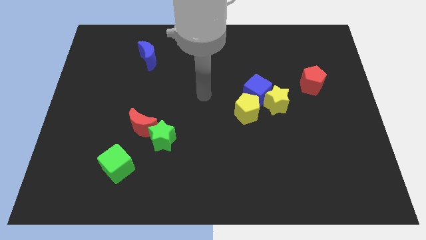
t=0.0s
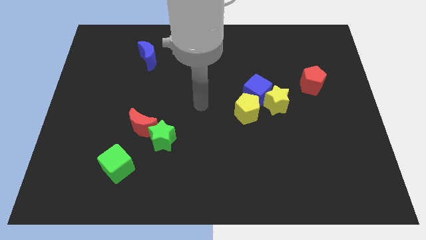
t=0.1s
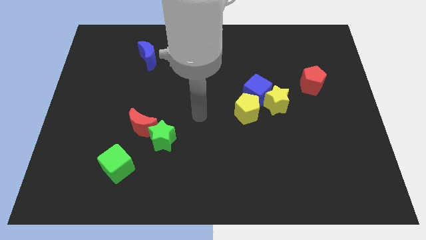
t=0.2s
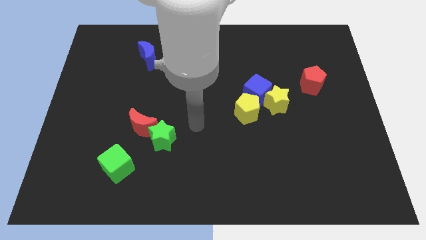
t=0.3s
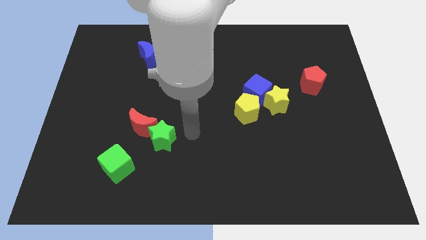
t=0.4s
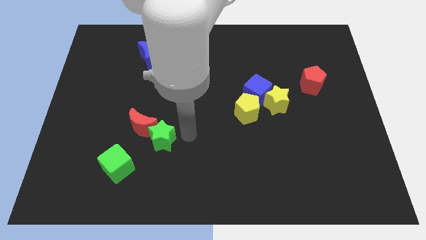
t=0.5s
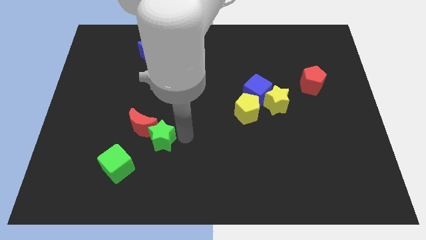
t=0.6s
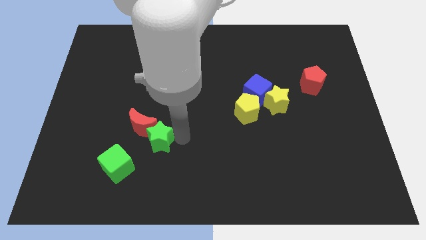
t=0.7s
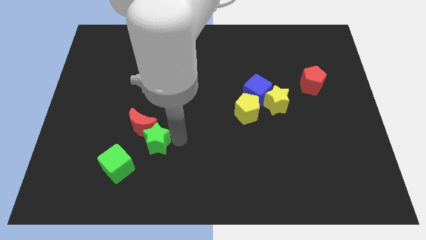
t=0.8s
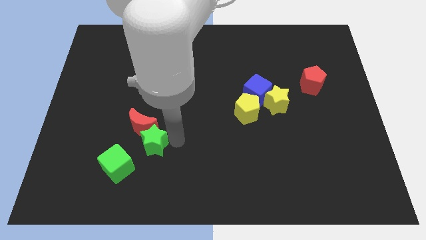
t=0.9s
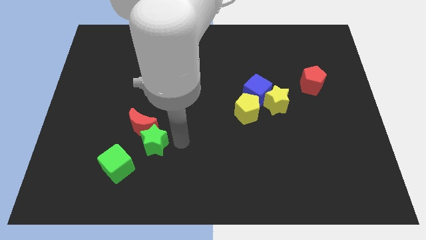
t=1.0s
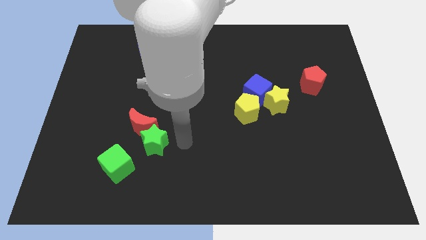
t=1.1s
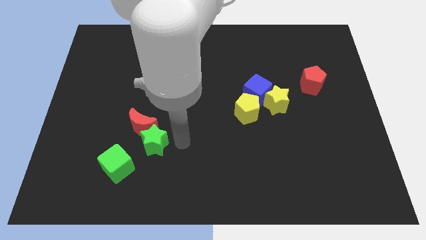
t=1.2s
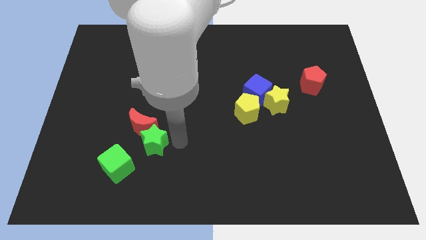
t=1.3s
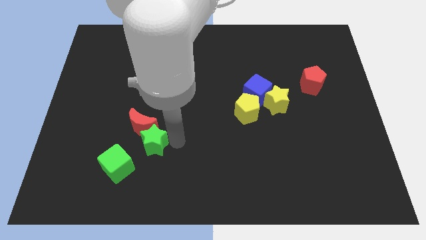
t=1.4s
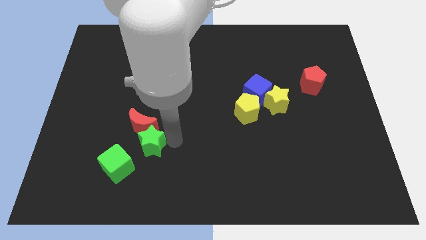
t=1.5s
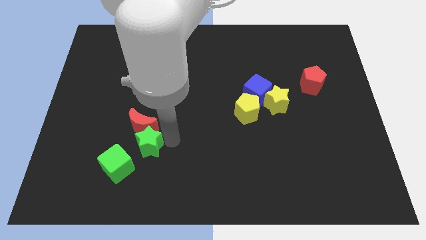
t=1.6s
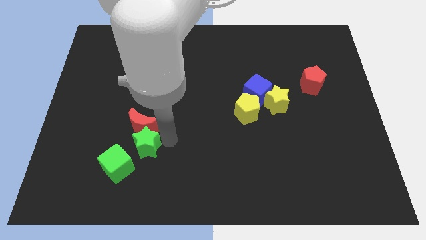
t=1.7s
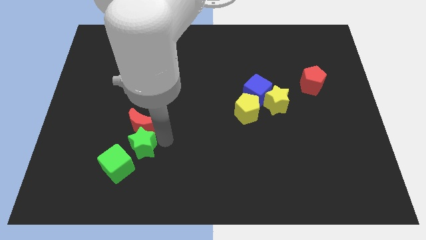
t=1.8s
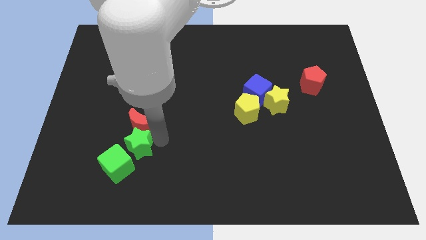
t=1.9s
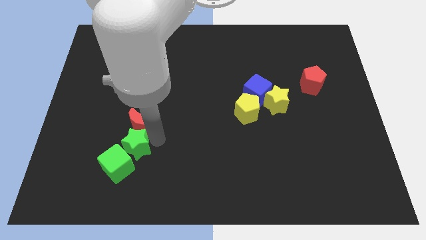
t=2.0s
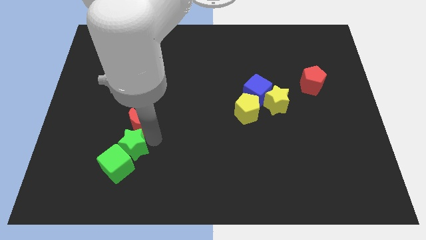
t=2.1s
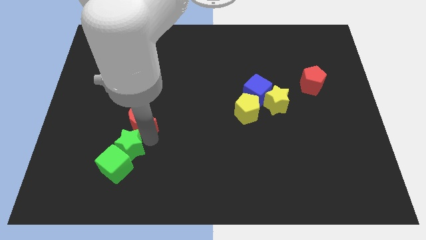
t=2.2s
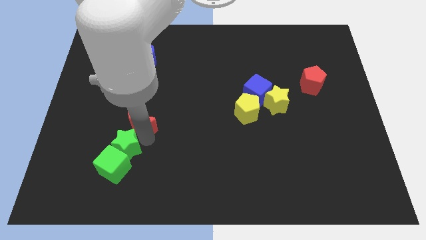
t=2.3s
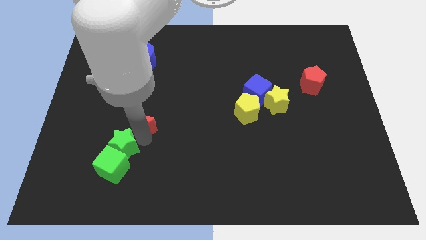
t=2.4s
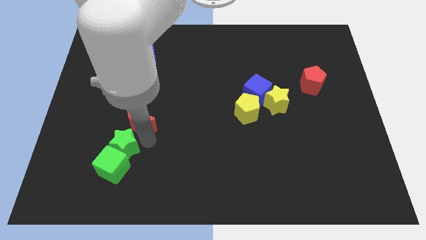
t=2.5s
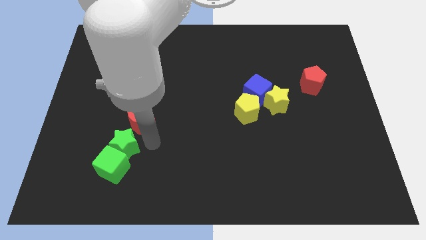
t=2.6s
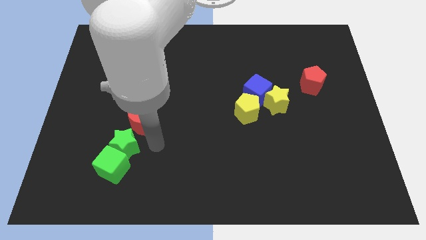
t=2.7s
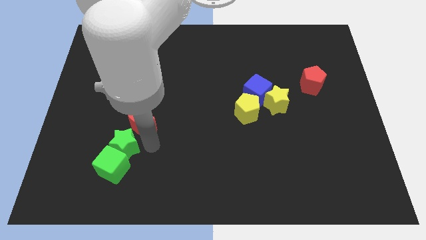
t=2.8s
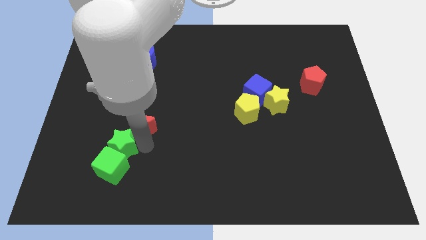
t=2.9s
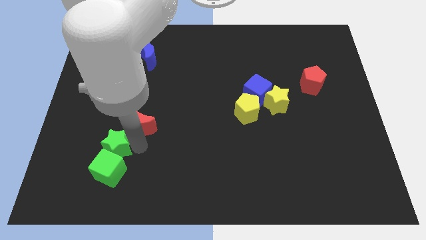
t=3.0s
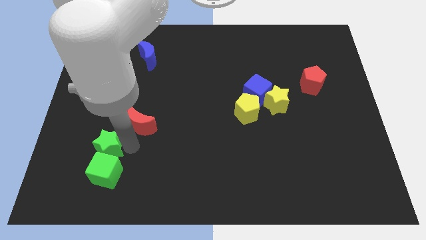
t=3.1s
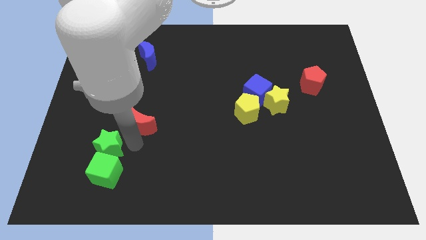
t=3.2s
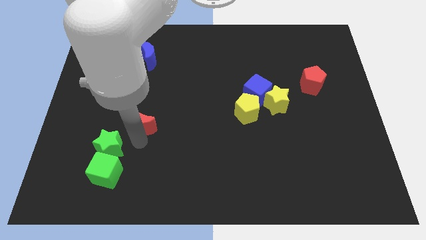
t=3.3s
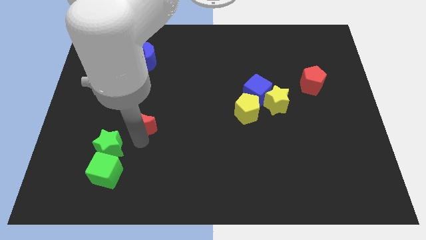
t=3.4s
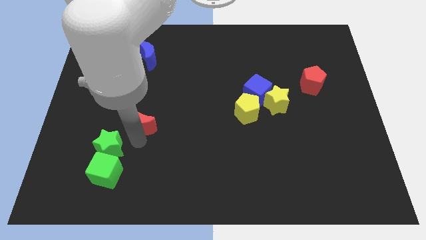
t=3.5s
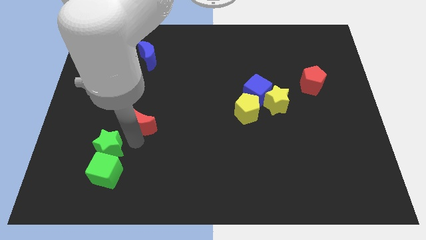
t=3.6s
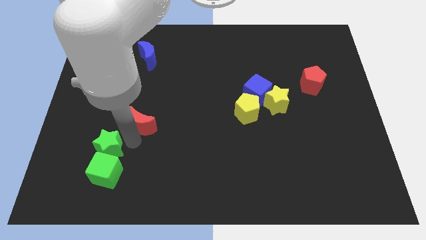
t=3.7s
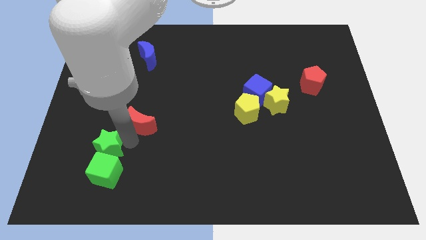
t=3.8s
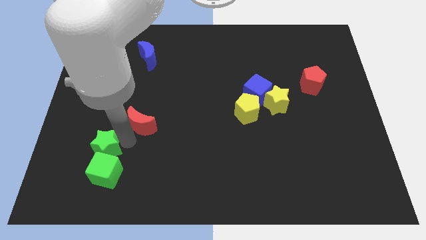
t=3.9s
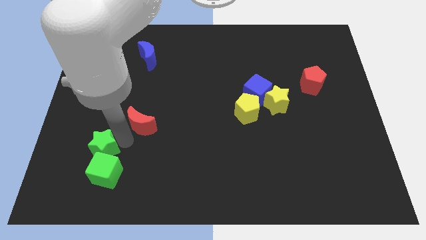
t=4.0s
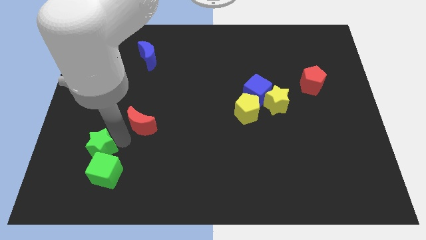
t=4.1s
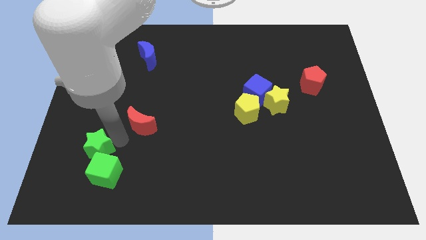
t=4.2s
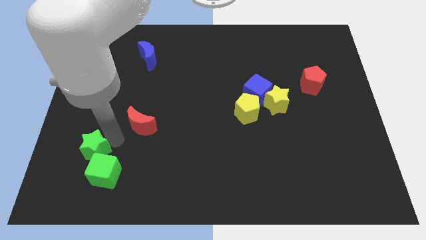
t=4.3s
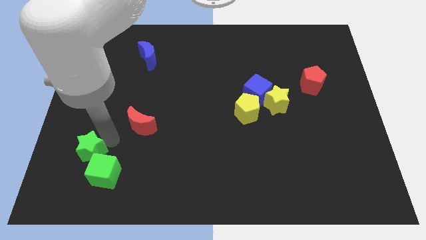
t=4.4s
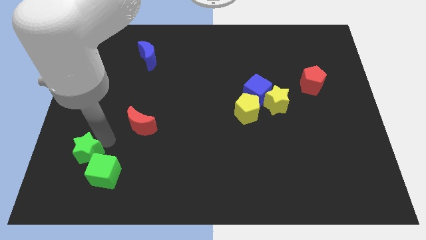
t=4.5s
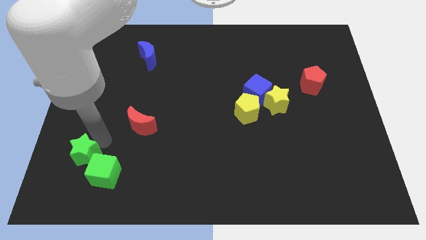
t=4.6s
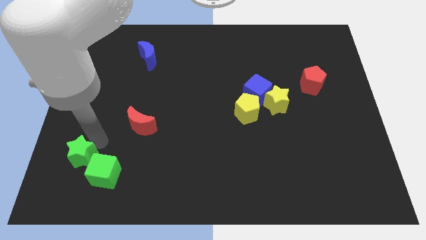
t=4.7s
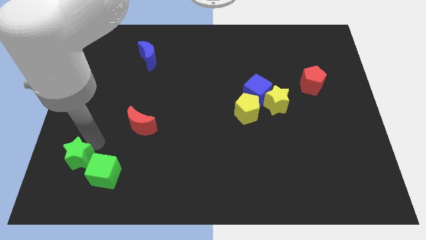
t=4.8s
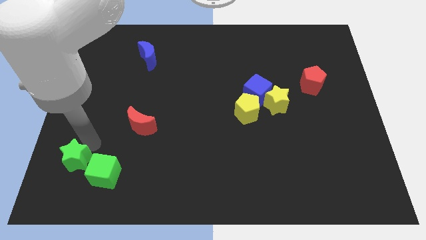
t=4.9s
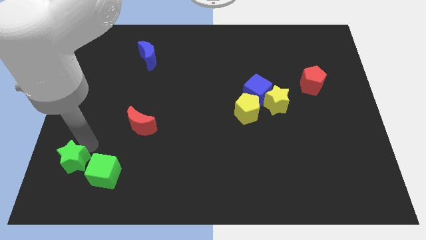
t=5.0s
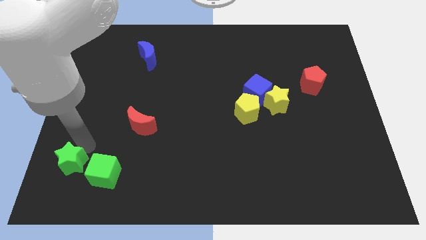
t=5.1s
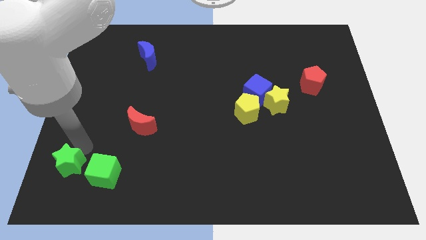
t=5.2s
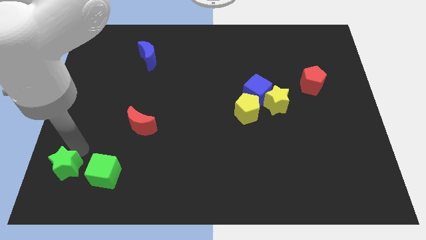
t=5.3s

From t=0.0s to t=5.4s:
put the green star to the bottom left

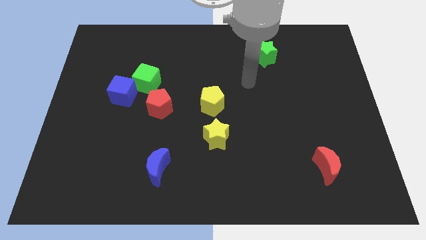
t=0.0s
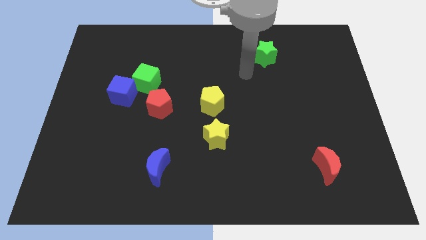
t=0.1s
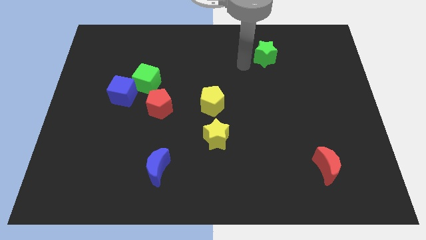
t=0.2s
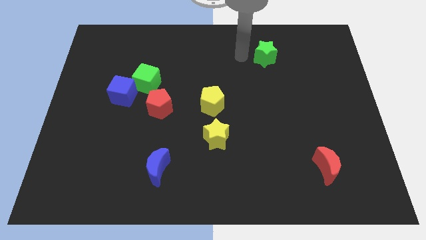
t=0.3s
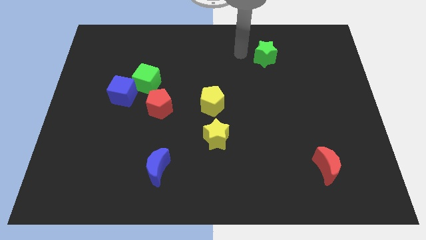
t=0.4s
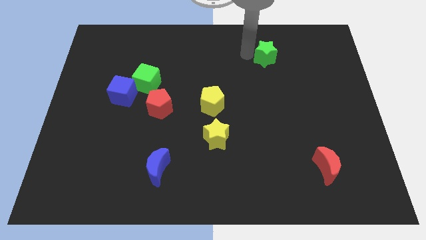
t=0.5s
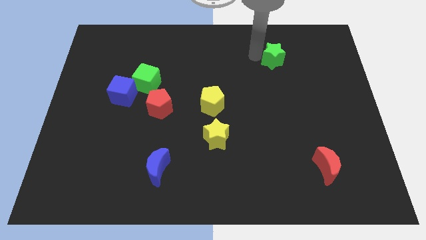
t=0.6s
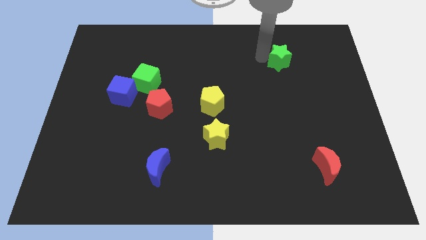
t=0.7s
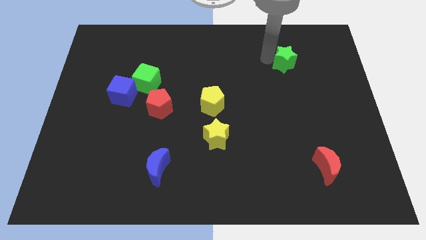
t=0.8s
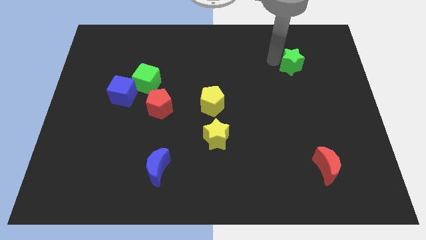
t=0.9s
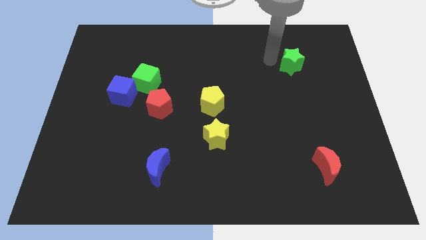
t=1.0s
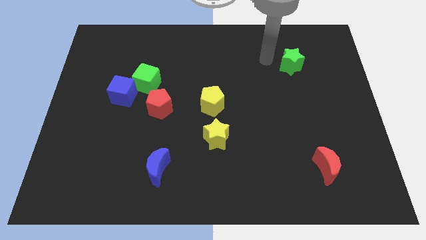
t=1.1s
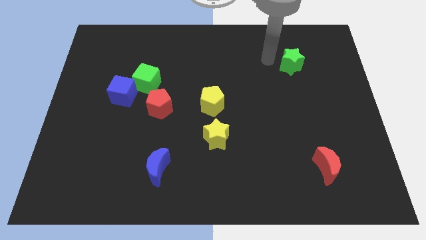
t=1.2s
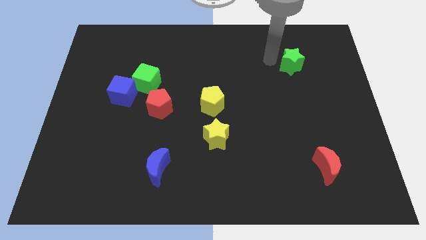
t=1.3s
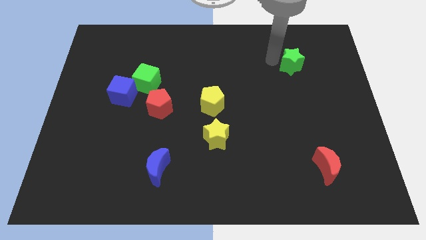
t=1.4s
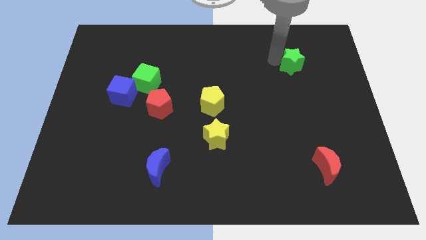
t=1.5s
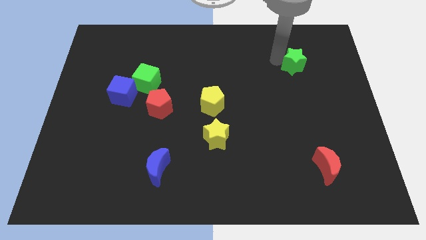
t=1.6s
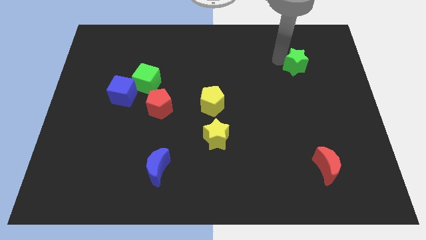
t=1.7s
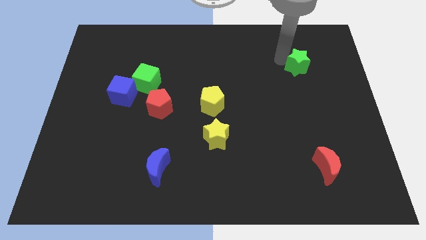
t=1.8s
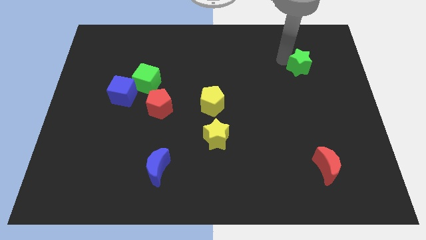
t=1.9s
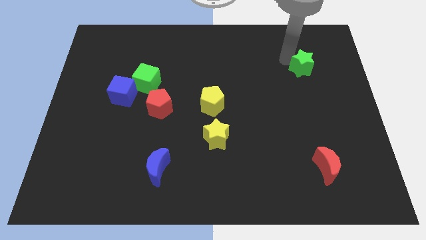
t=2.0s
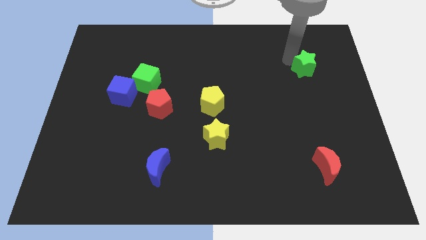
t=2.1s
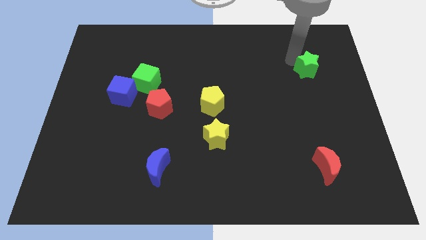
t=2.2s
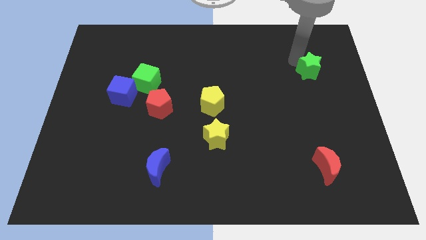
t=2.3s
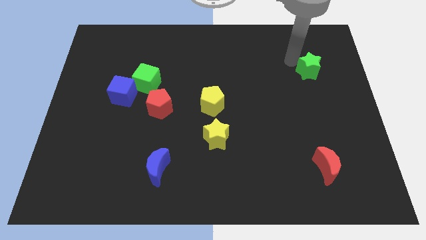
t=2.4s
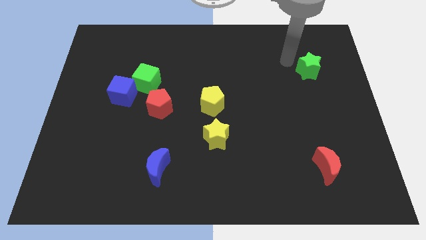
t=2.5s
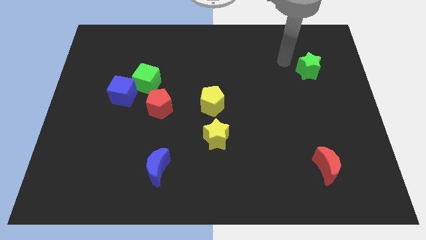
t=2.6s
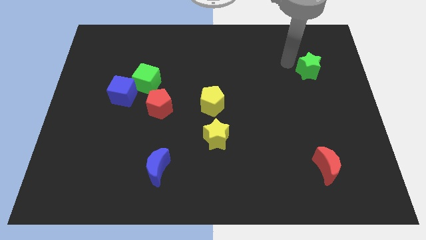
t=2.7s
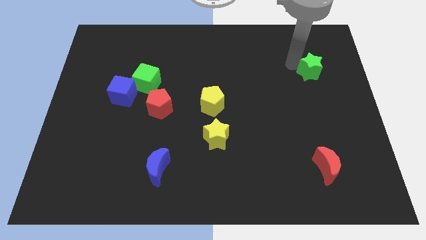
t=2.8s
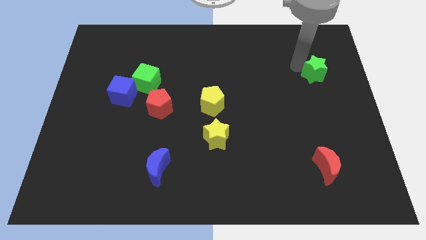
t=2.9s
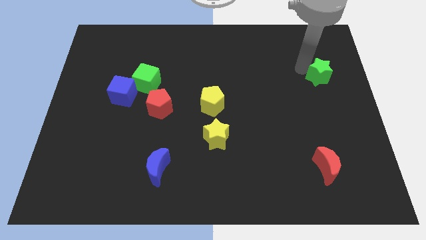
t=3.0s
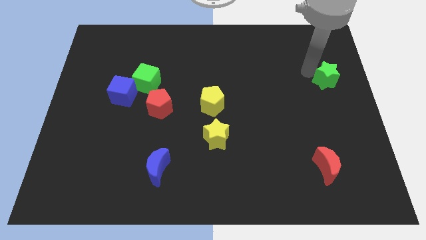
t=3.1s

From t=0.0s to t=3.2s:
put the green star to the center right
